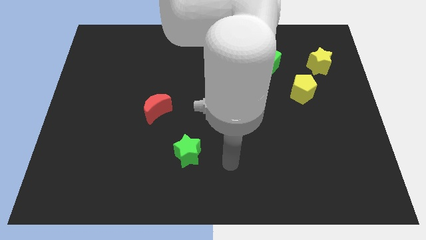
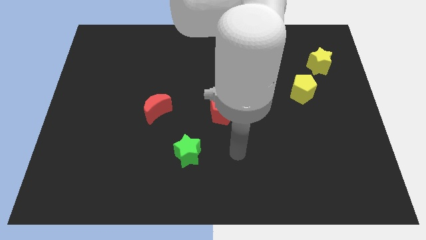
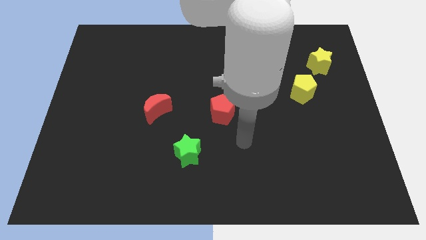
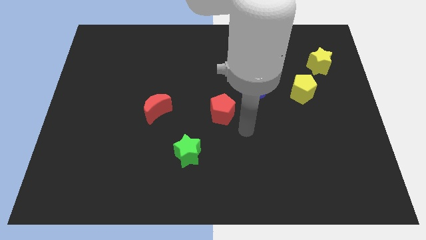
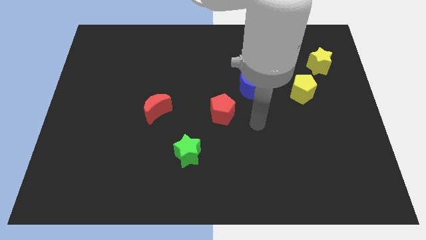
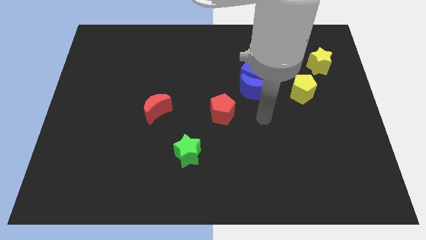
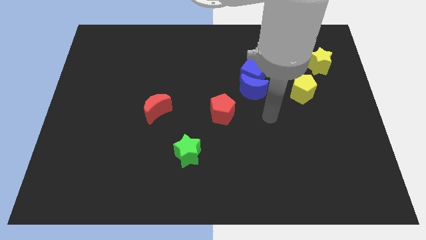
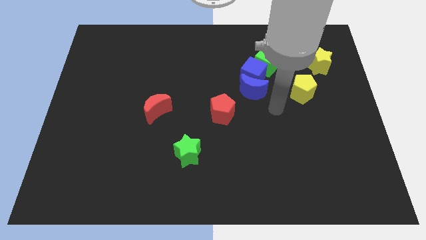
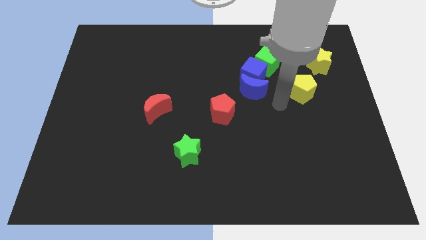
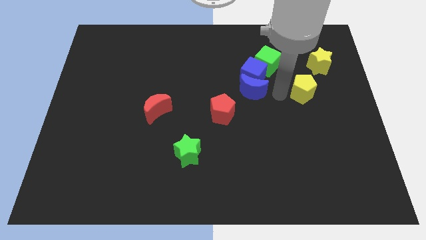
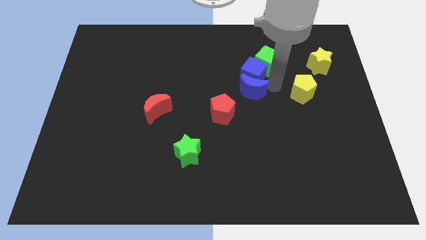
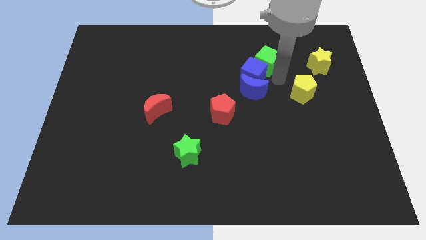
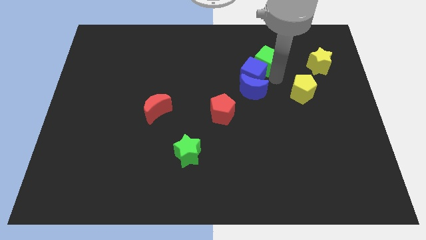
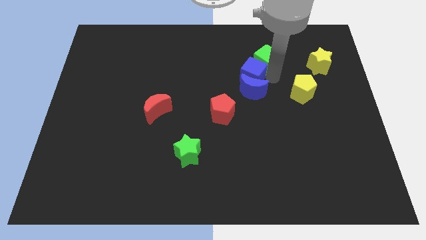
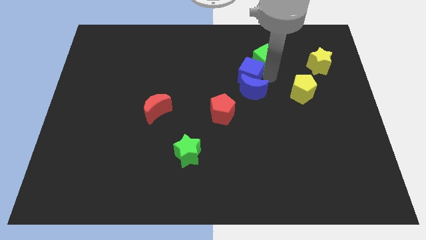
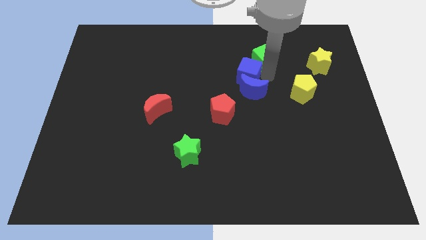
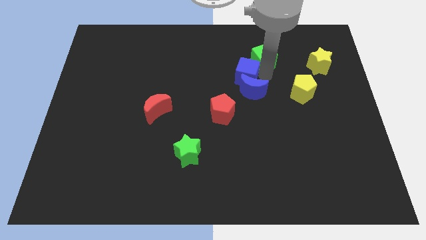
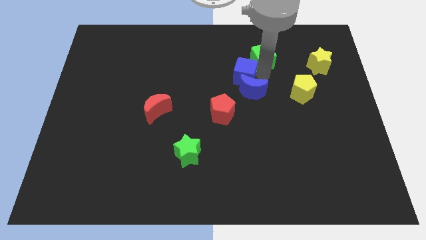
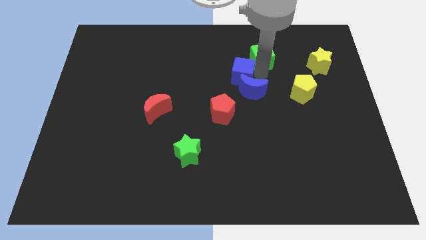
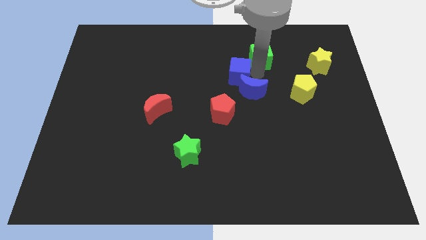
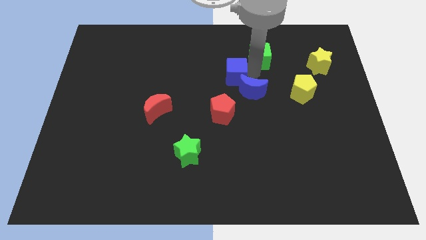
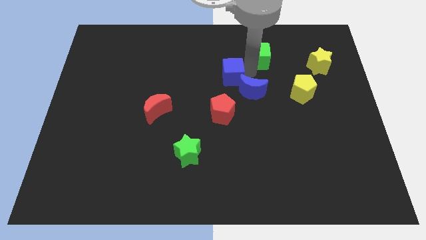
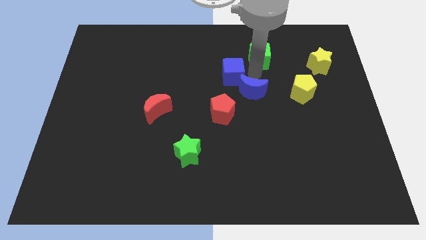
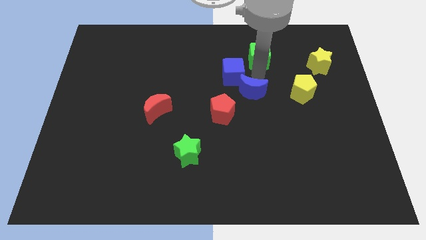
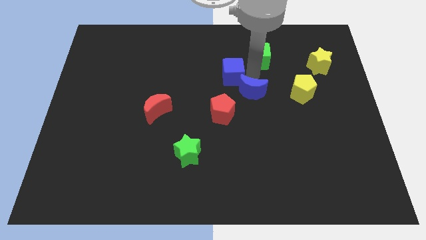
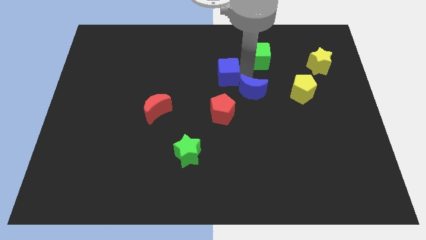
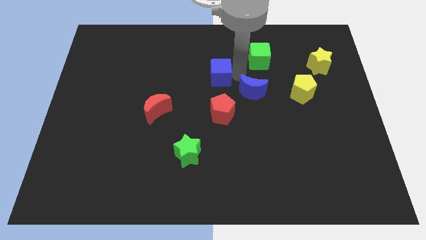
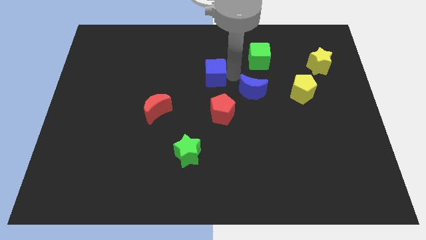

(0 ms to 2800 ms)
move the blue cube away from the blue moon and green cube

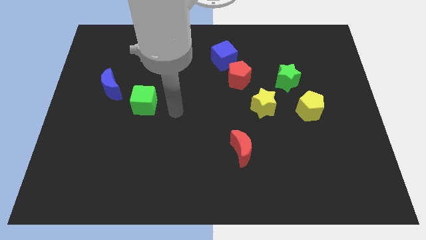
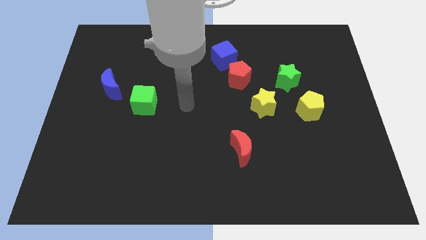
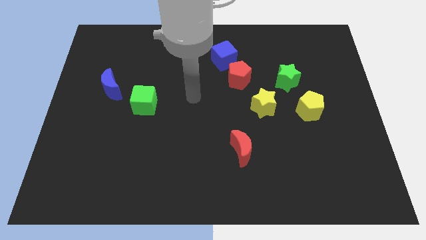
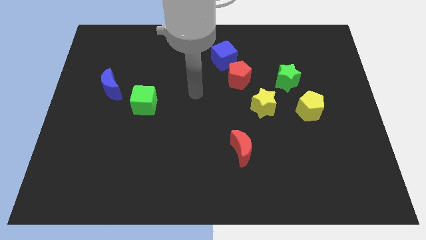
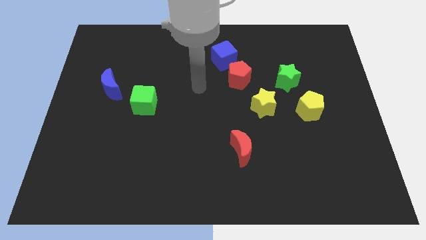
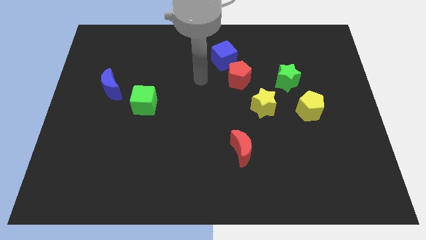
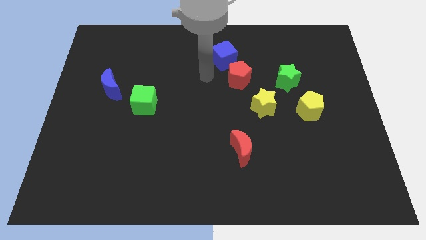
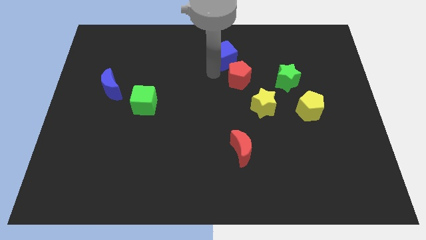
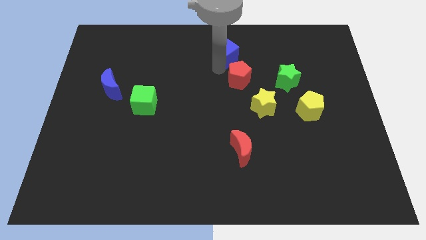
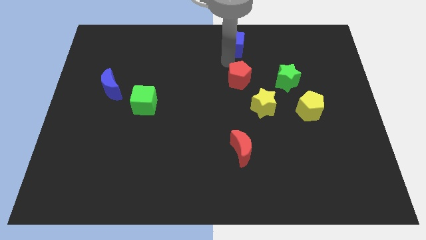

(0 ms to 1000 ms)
separate the red pentagon from the blue cube

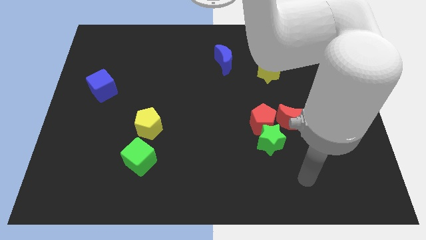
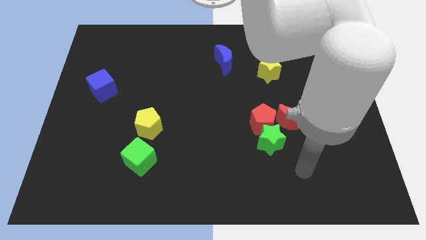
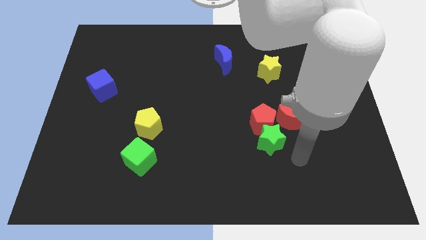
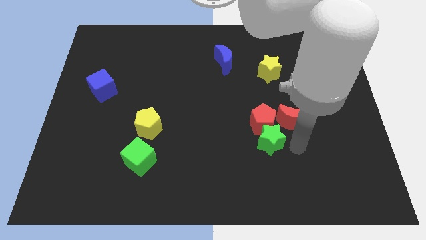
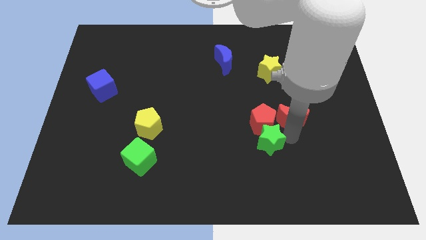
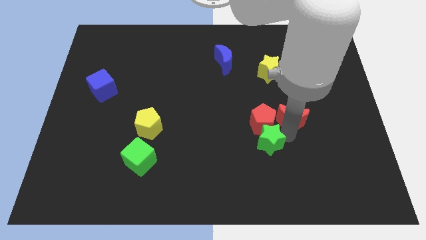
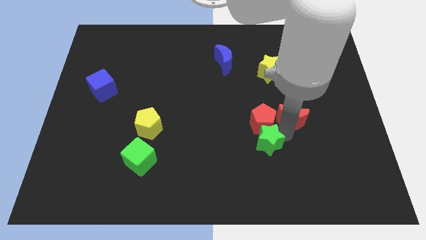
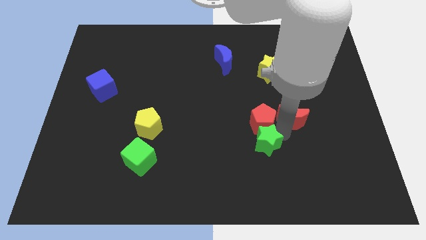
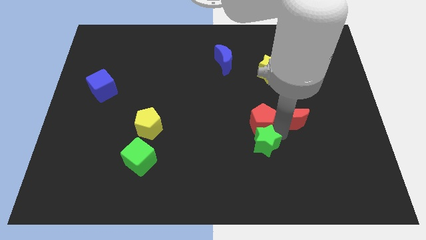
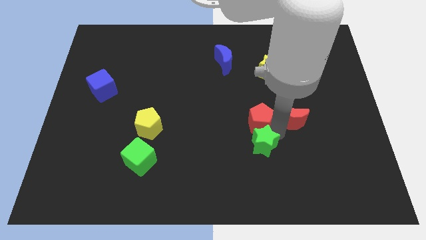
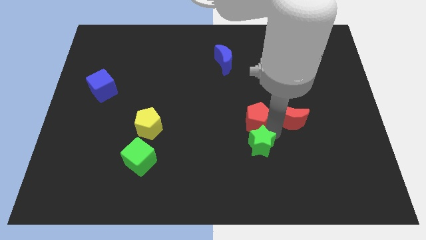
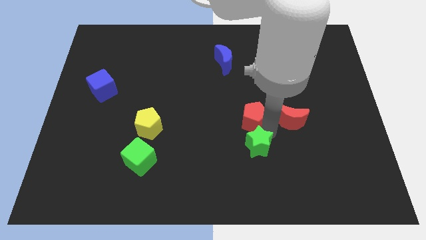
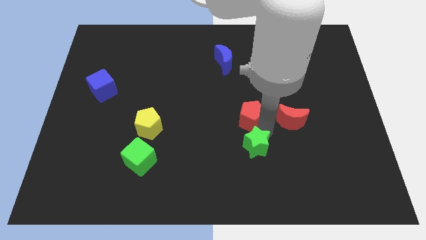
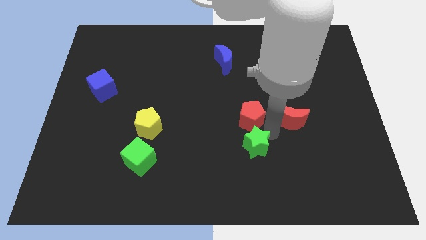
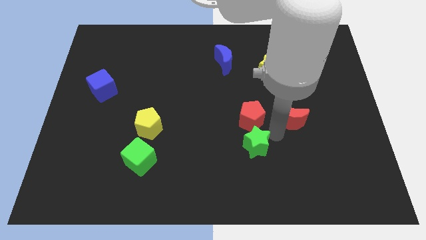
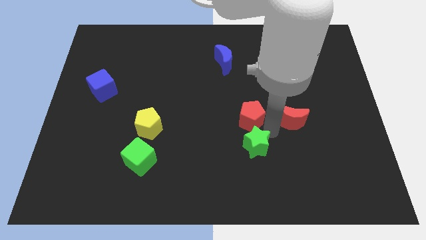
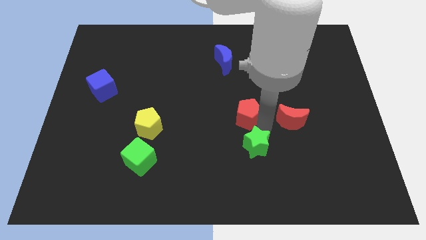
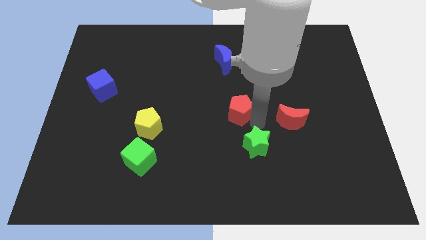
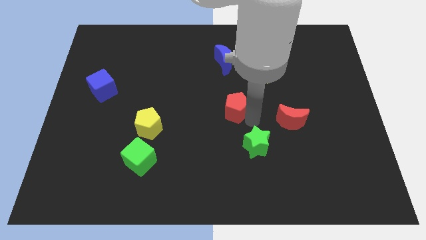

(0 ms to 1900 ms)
pull the red pentagon apart from the green star and red moon

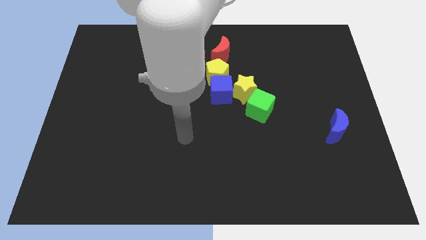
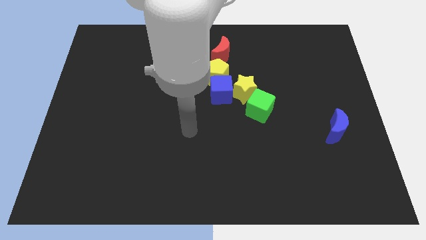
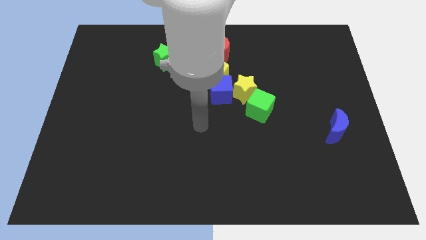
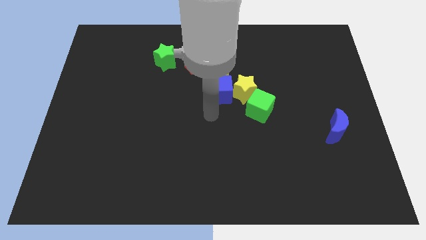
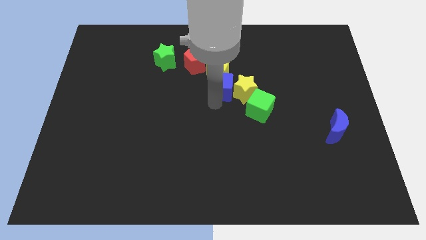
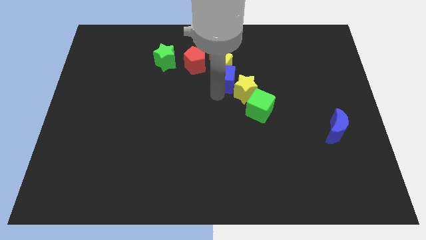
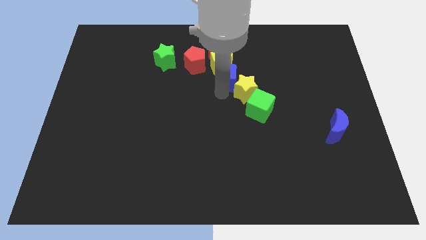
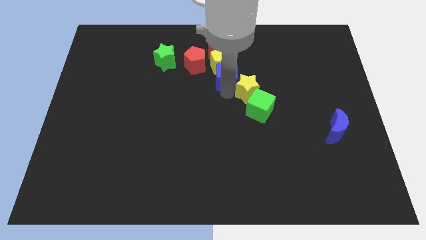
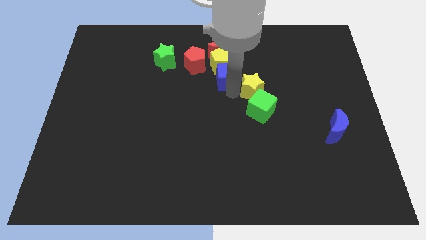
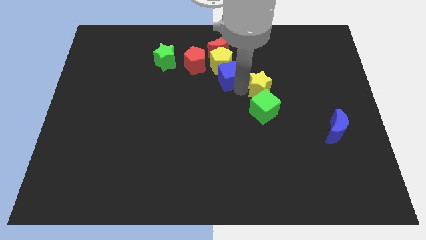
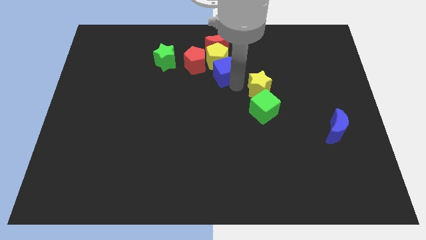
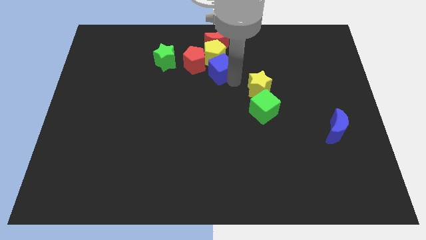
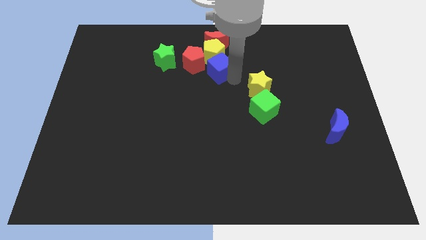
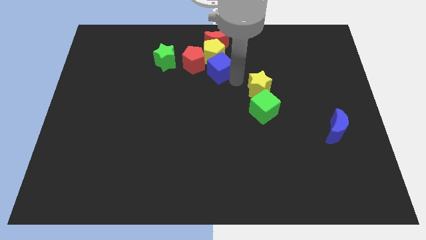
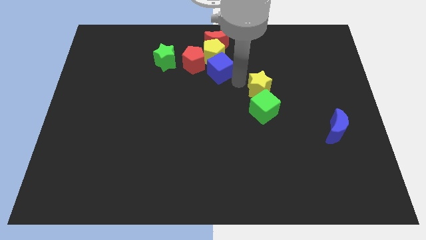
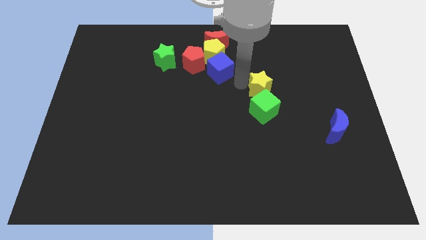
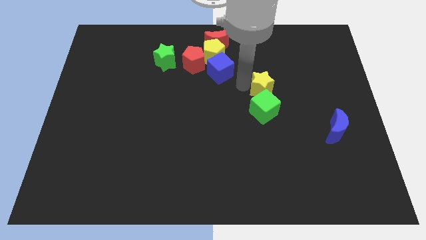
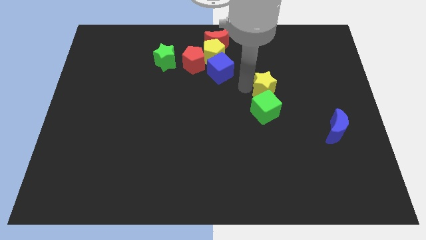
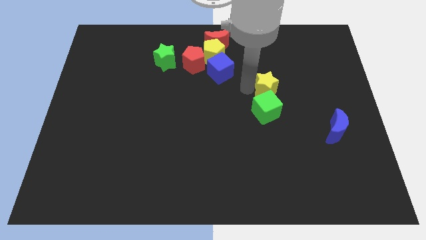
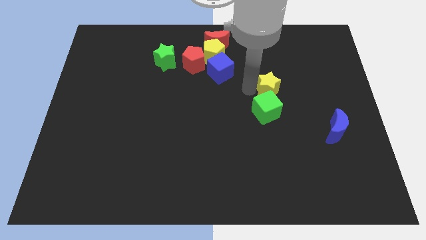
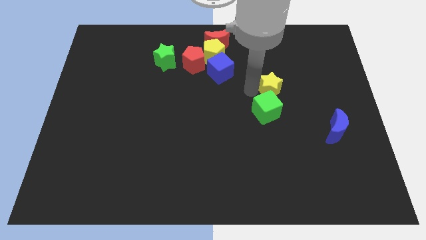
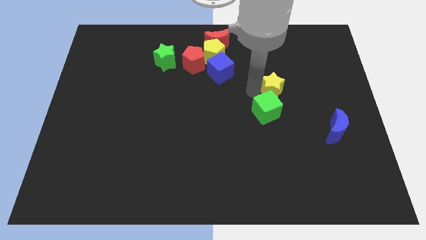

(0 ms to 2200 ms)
move the yellow star away from the group of blocks

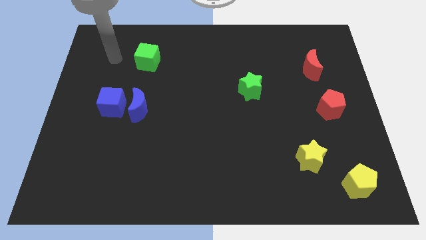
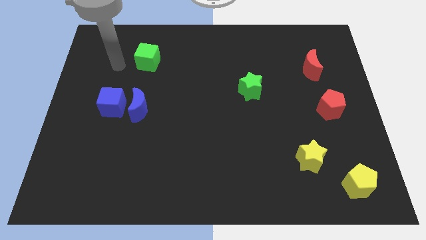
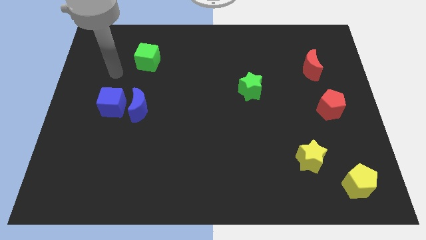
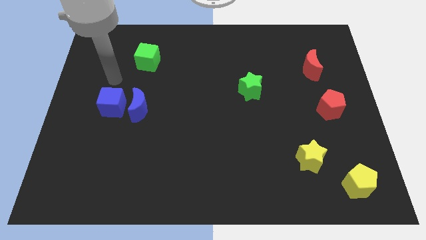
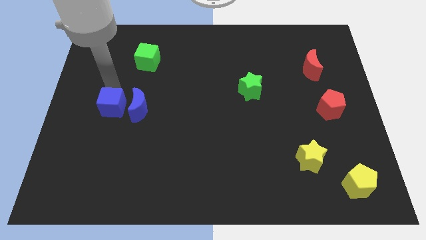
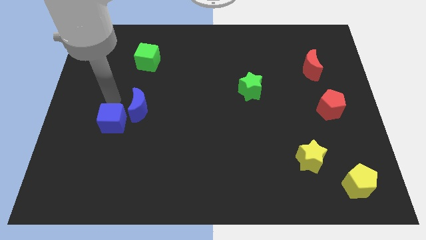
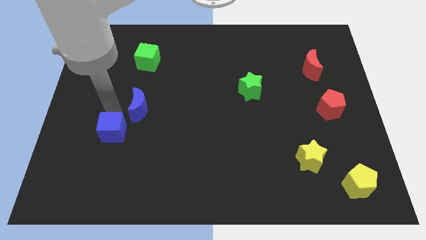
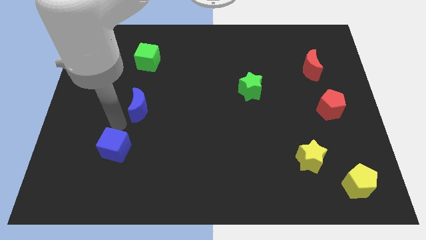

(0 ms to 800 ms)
move the blue moon away from the blue cube

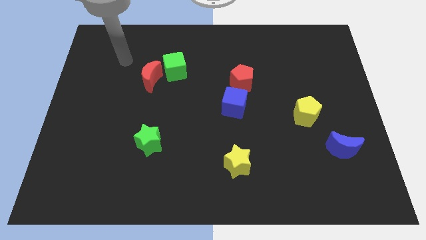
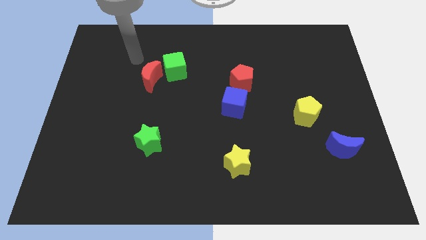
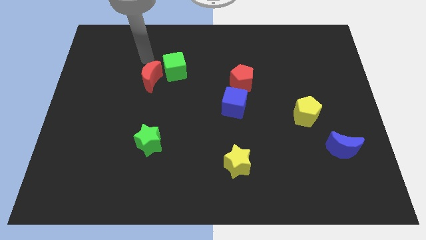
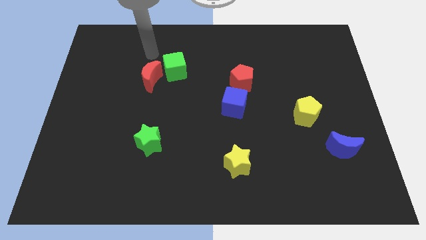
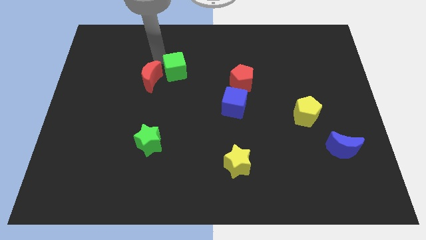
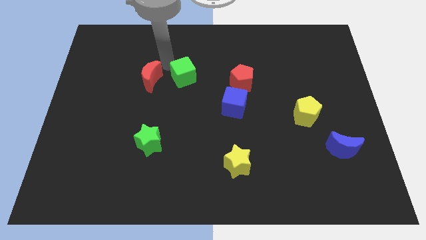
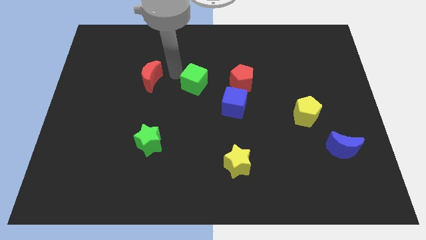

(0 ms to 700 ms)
separate the red moon from the green cube
